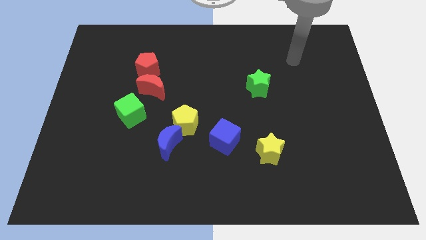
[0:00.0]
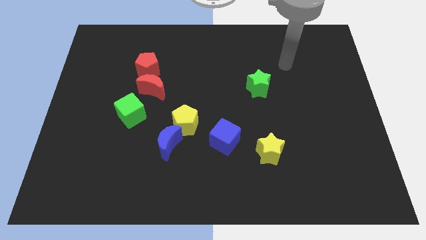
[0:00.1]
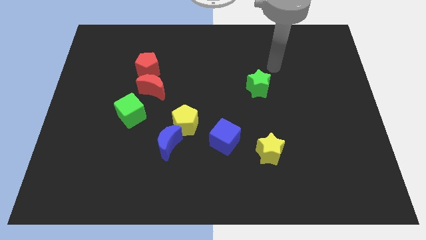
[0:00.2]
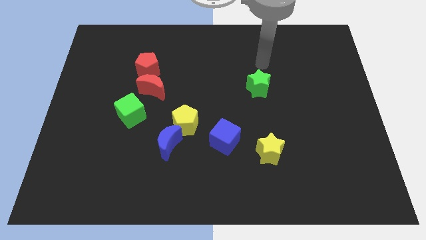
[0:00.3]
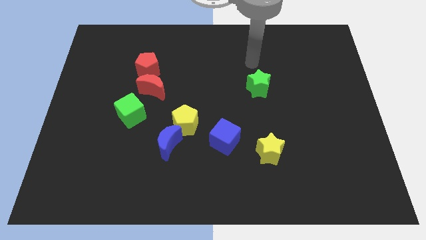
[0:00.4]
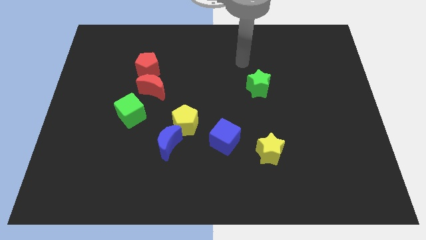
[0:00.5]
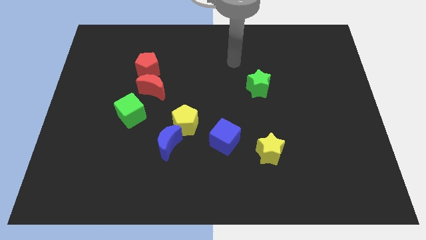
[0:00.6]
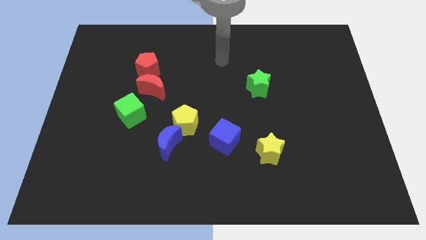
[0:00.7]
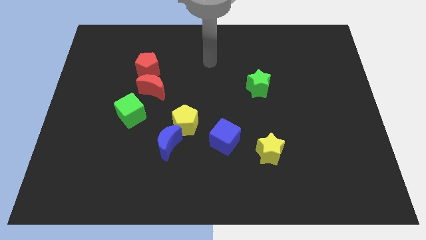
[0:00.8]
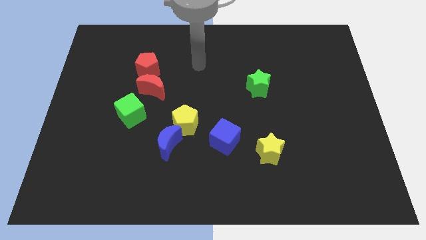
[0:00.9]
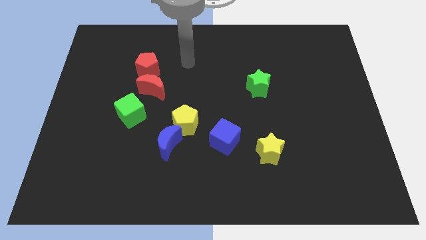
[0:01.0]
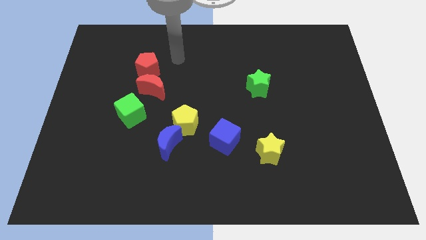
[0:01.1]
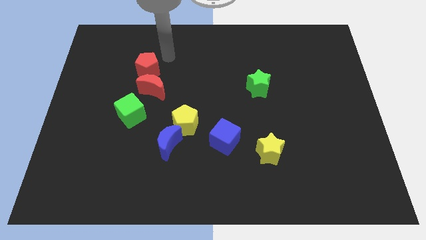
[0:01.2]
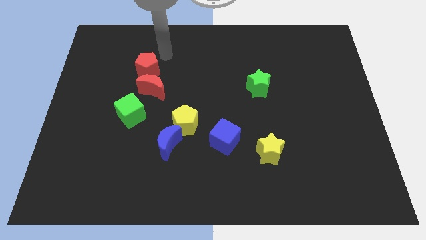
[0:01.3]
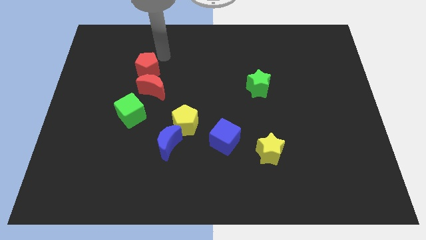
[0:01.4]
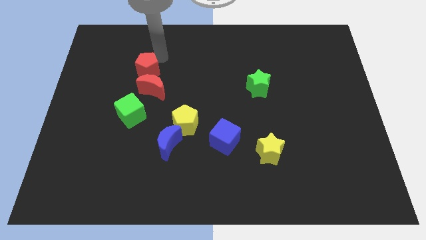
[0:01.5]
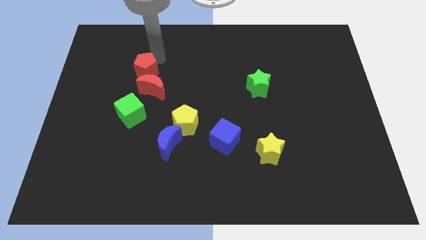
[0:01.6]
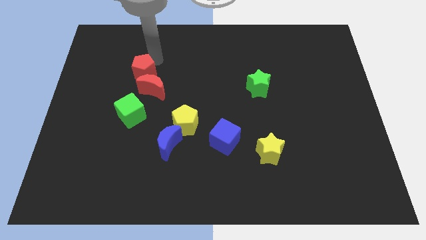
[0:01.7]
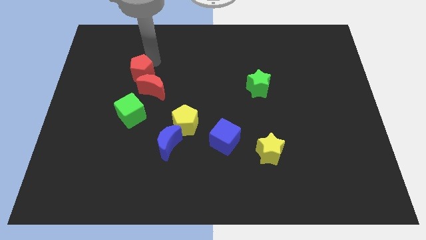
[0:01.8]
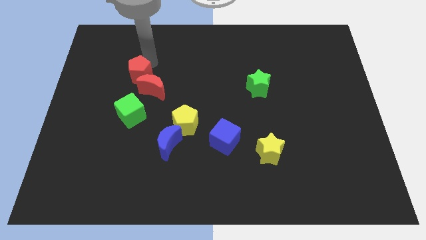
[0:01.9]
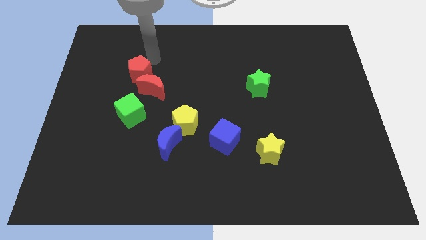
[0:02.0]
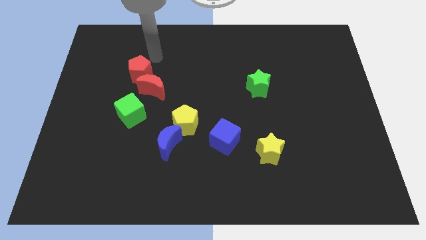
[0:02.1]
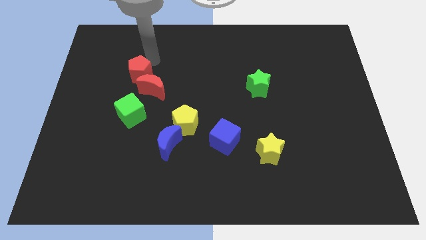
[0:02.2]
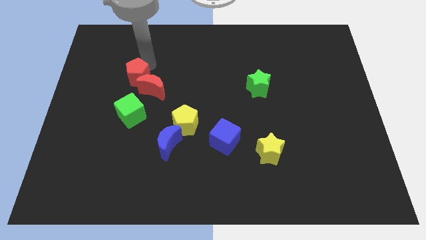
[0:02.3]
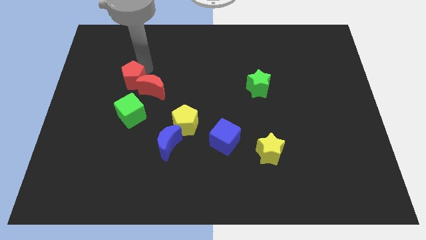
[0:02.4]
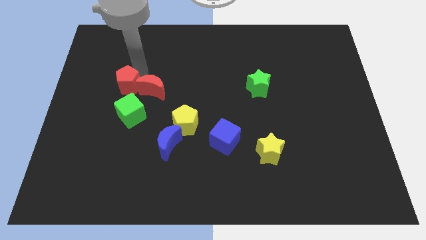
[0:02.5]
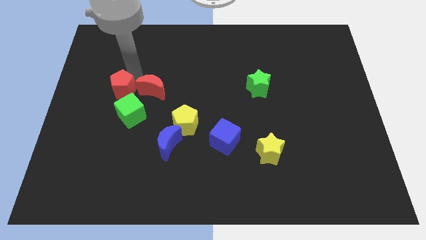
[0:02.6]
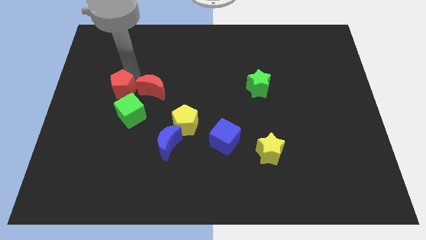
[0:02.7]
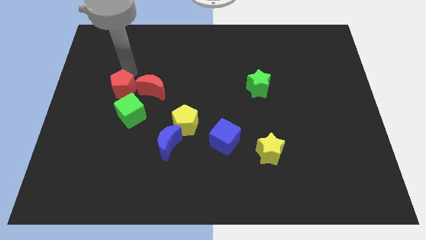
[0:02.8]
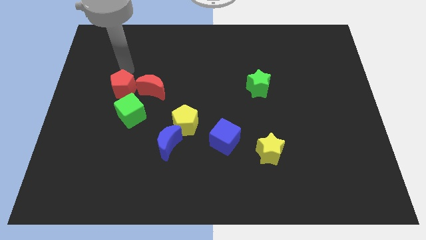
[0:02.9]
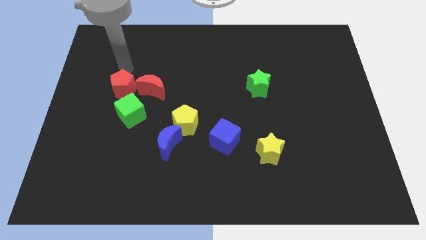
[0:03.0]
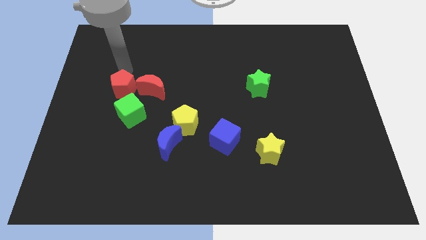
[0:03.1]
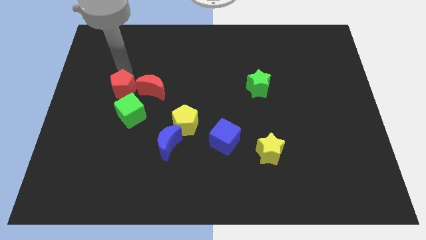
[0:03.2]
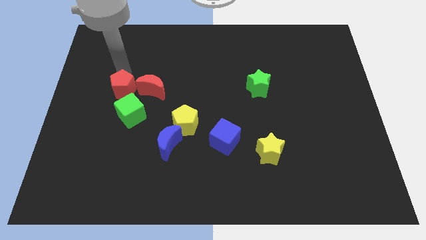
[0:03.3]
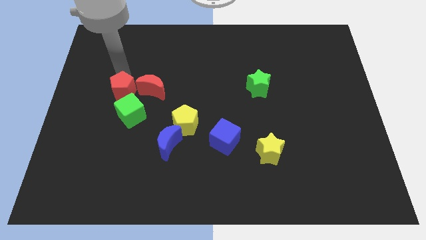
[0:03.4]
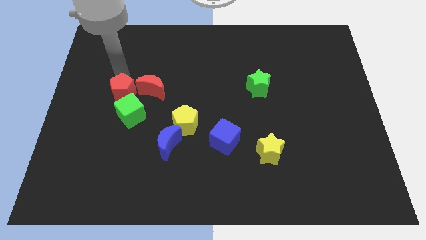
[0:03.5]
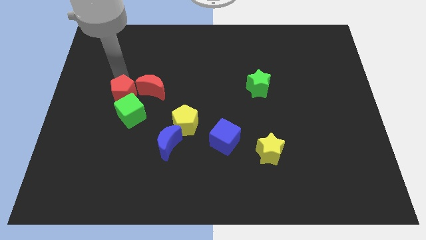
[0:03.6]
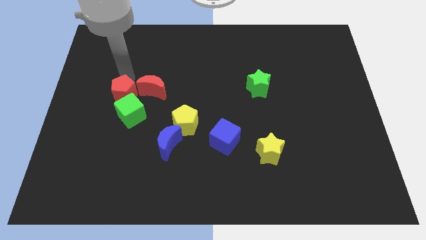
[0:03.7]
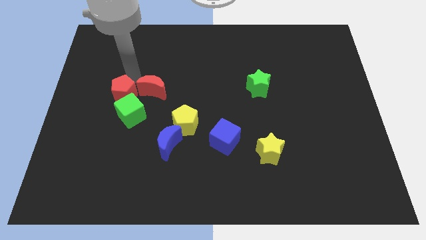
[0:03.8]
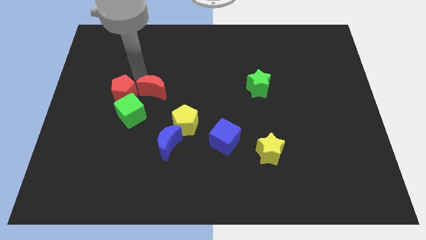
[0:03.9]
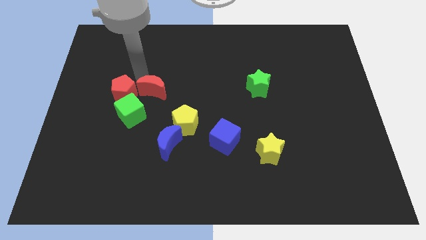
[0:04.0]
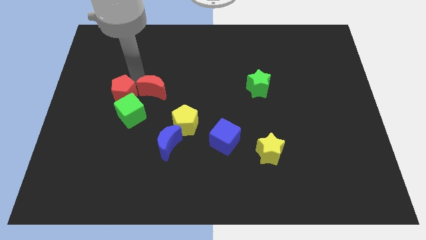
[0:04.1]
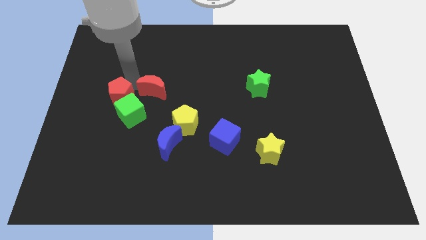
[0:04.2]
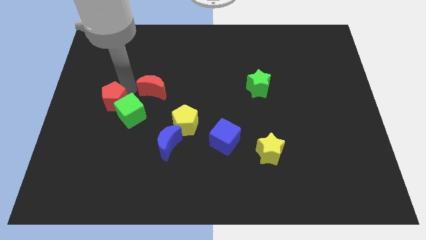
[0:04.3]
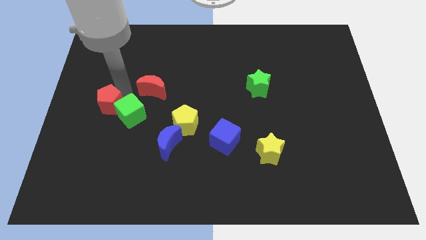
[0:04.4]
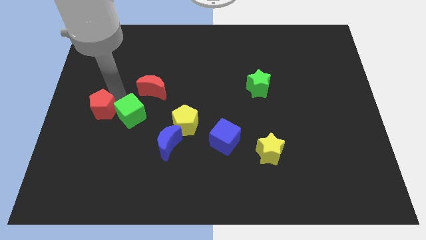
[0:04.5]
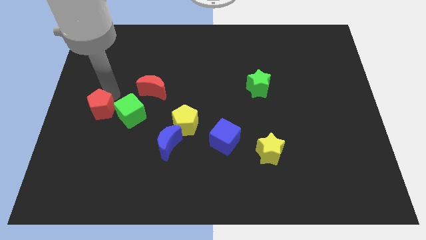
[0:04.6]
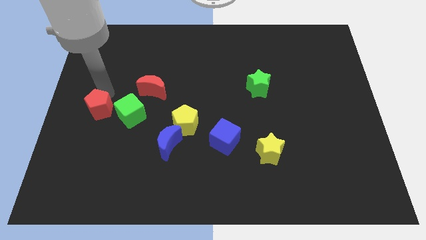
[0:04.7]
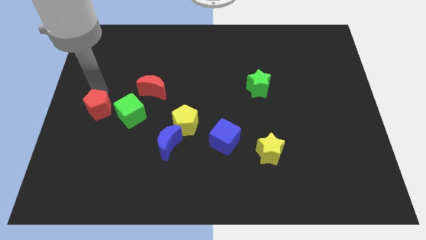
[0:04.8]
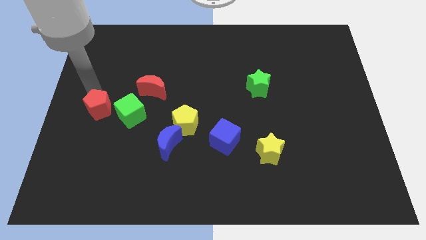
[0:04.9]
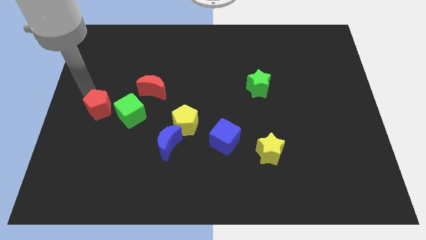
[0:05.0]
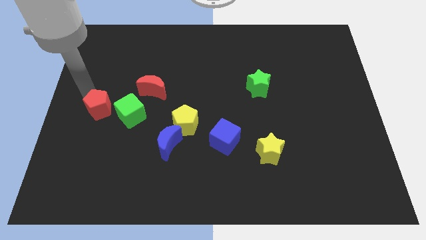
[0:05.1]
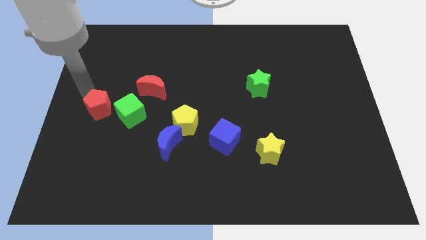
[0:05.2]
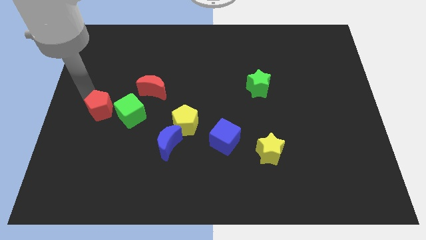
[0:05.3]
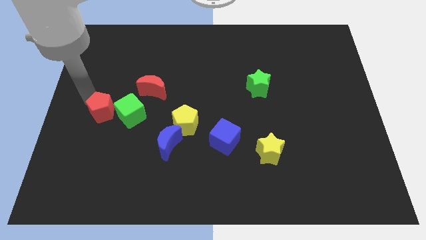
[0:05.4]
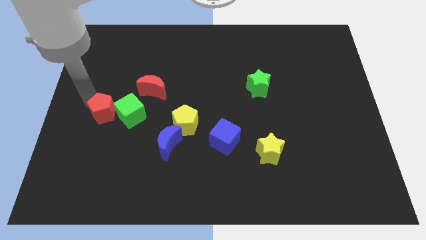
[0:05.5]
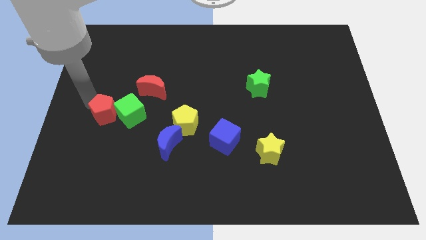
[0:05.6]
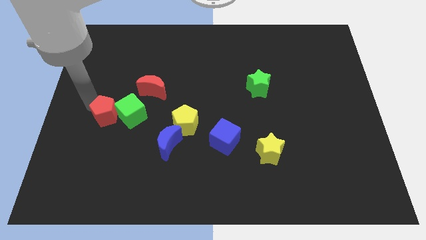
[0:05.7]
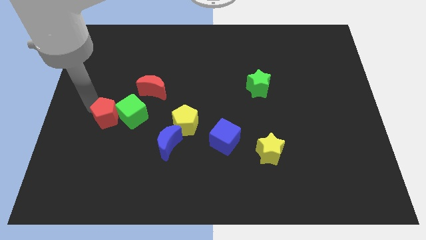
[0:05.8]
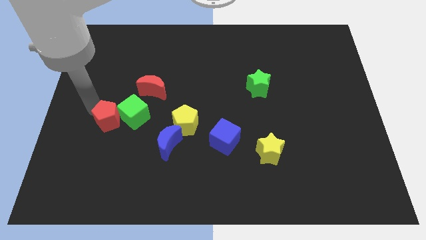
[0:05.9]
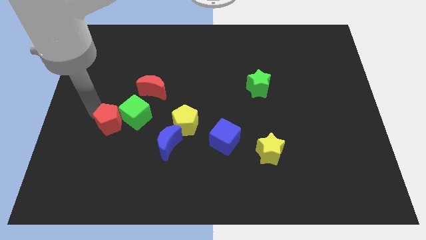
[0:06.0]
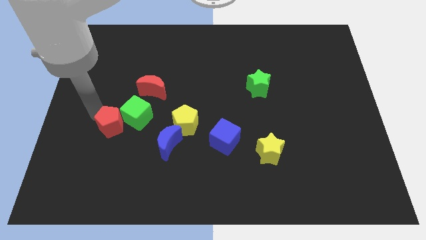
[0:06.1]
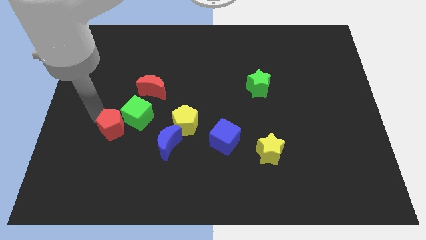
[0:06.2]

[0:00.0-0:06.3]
push the red pentagon just left of the blue moon

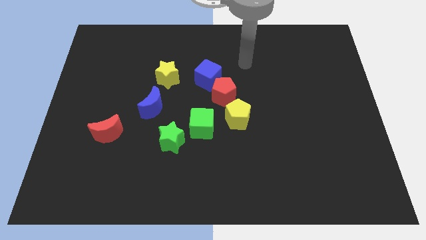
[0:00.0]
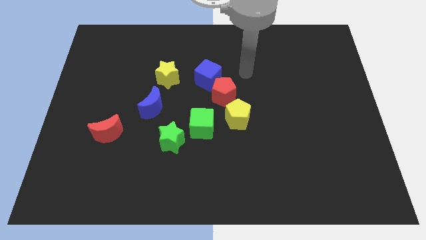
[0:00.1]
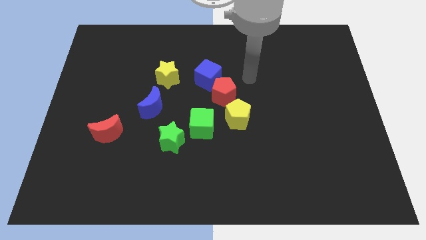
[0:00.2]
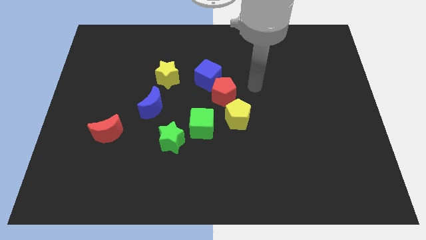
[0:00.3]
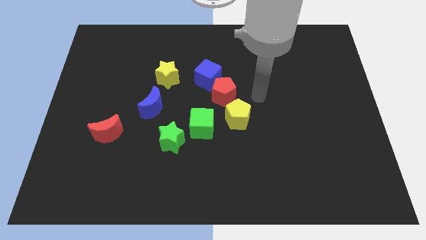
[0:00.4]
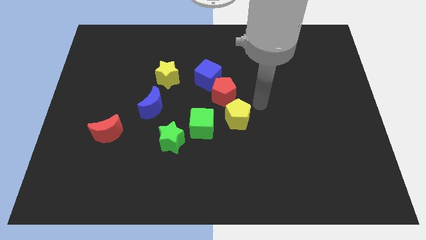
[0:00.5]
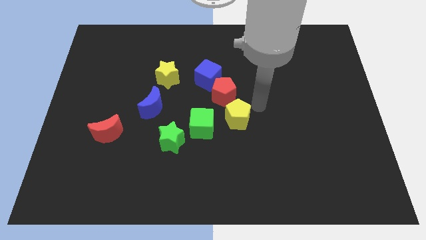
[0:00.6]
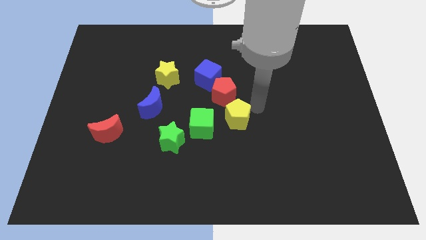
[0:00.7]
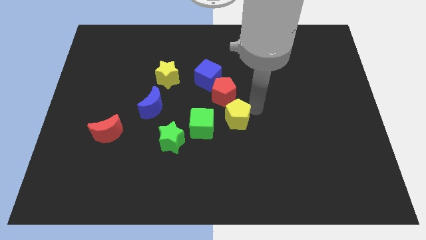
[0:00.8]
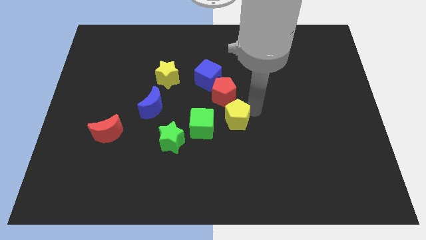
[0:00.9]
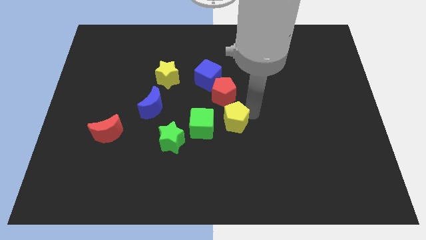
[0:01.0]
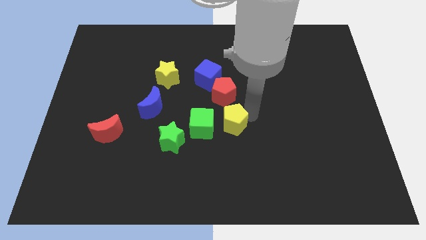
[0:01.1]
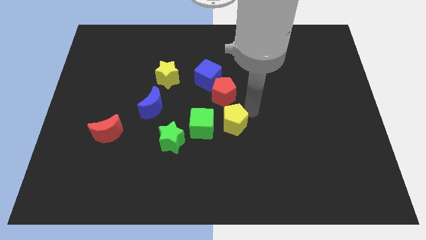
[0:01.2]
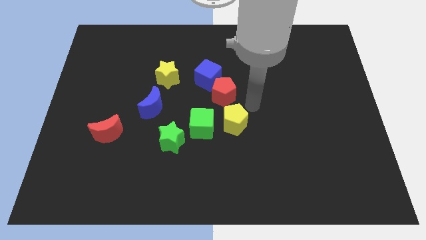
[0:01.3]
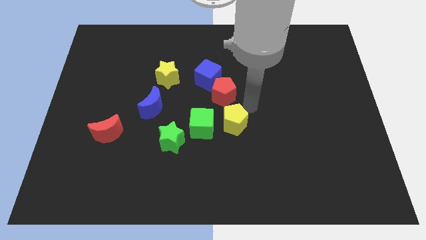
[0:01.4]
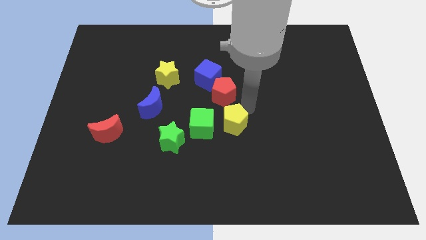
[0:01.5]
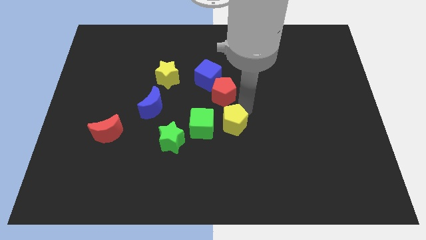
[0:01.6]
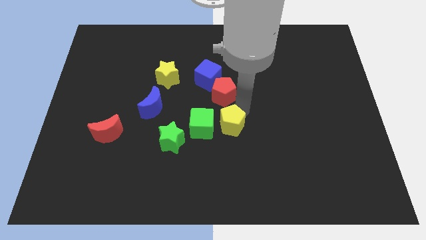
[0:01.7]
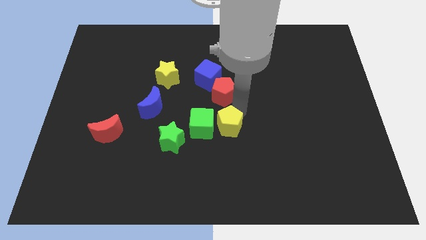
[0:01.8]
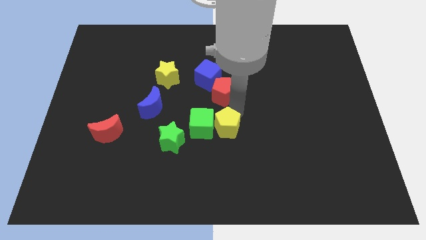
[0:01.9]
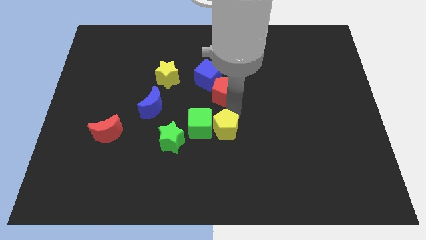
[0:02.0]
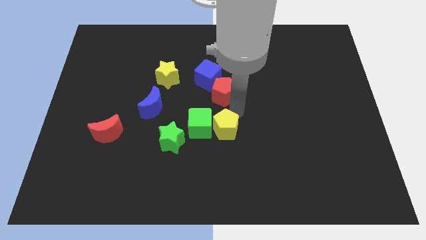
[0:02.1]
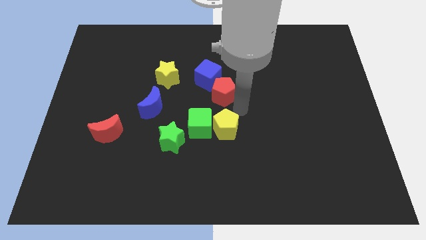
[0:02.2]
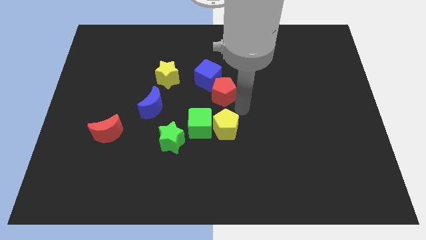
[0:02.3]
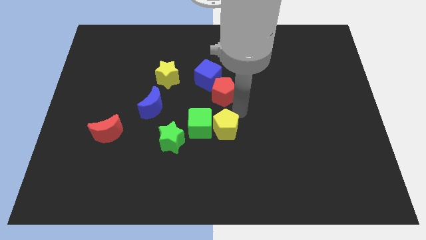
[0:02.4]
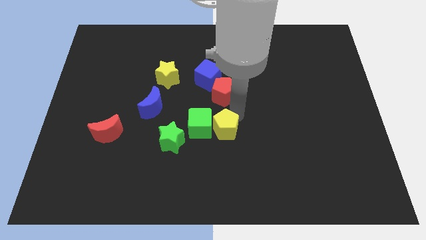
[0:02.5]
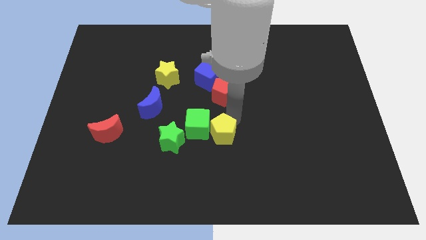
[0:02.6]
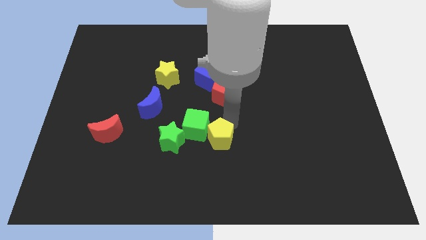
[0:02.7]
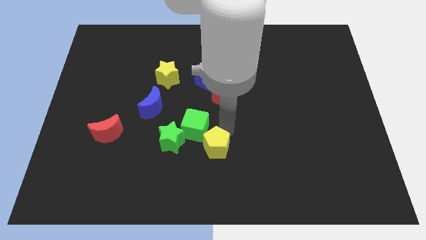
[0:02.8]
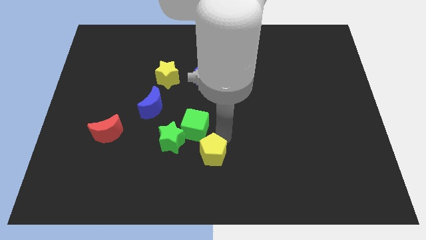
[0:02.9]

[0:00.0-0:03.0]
put the yellow pentagon to the bottom right of the green star
